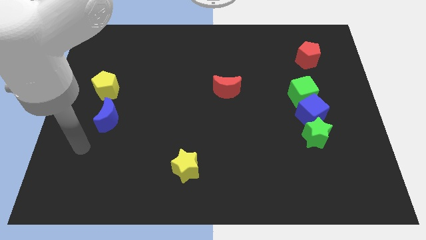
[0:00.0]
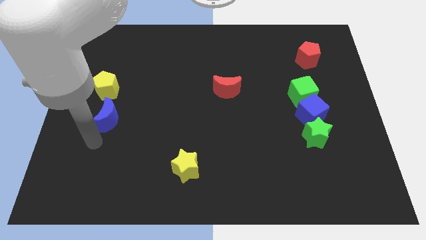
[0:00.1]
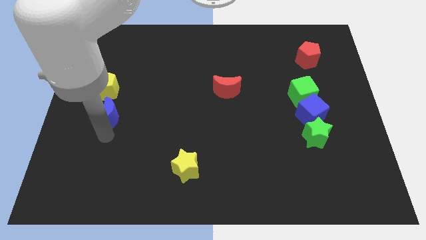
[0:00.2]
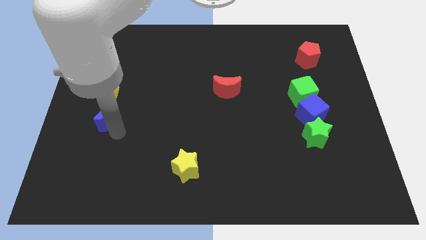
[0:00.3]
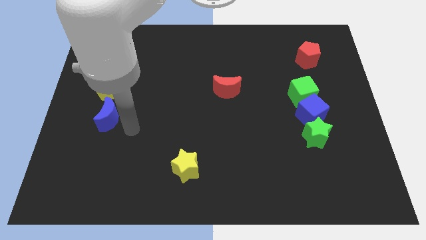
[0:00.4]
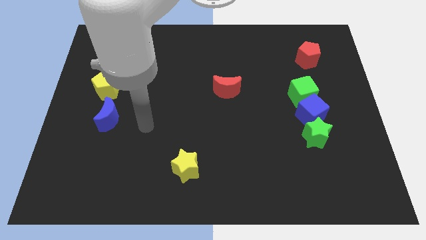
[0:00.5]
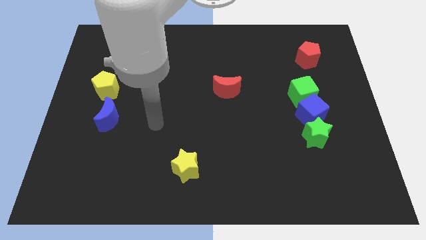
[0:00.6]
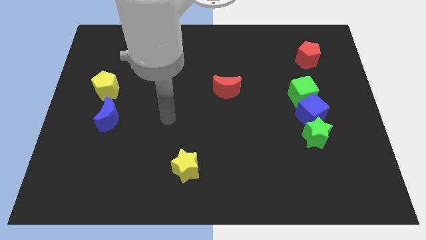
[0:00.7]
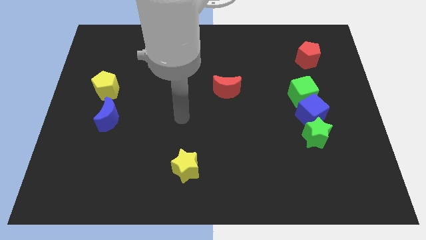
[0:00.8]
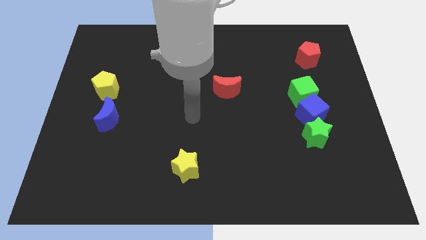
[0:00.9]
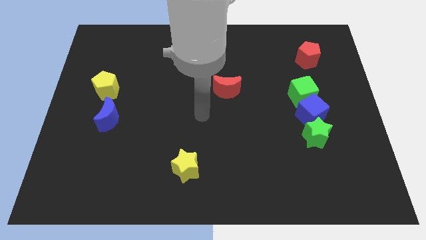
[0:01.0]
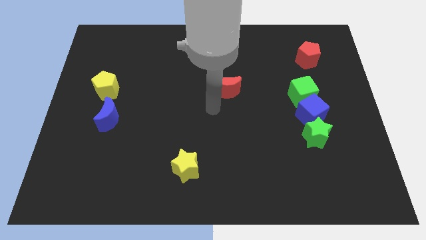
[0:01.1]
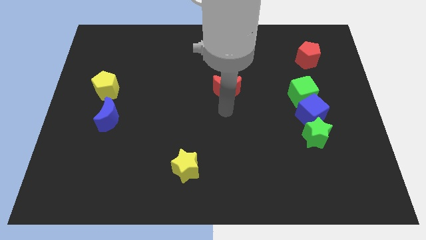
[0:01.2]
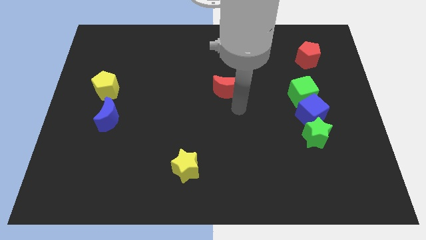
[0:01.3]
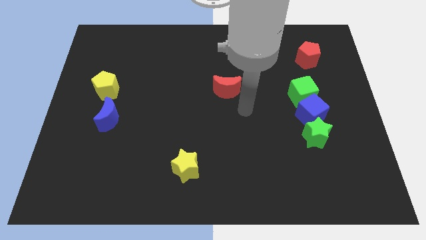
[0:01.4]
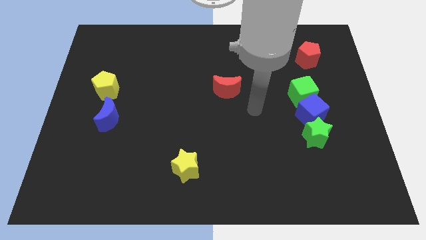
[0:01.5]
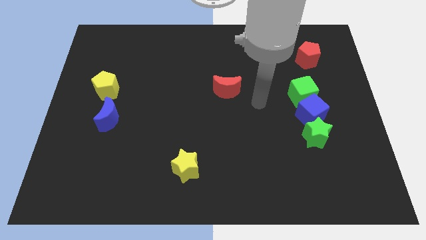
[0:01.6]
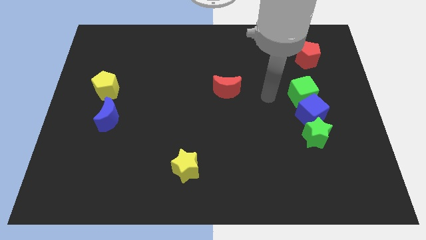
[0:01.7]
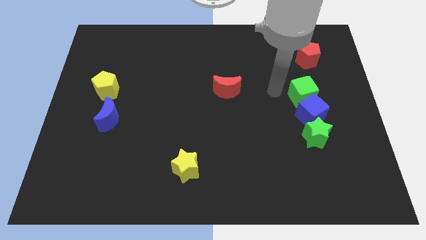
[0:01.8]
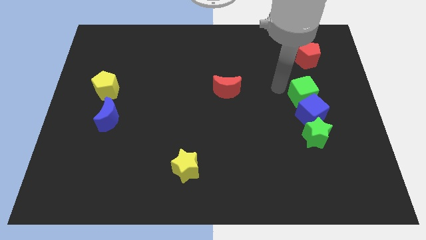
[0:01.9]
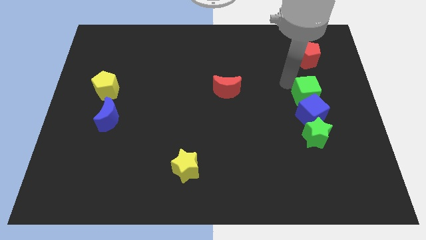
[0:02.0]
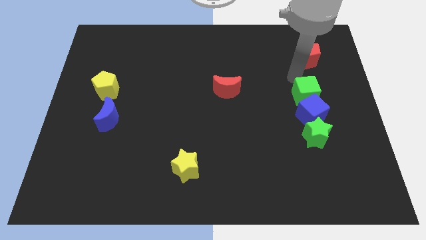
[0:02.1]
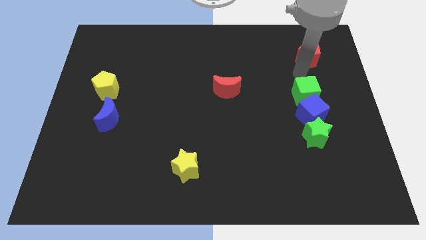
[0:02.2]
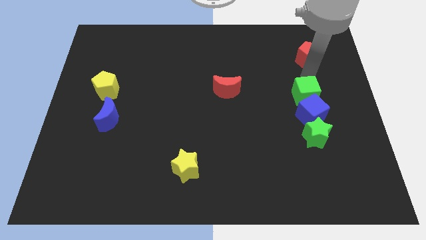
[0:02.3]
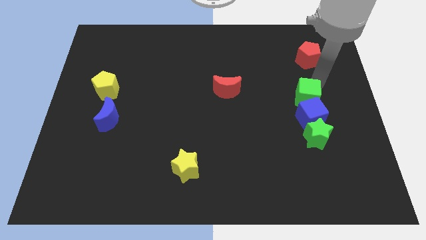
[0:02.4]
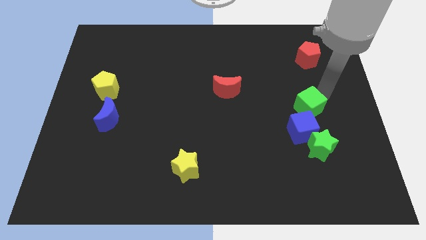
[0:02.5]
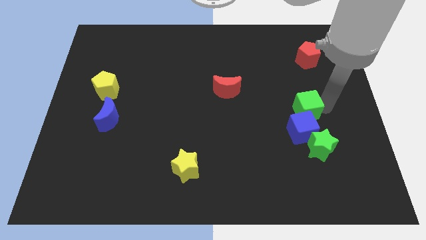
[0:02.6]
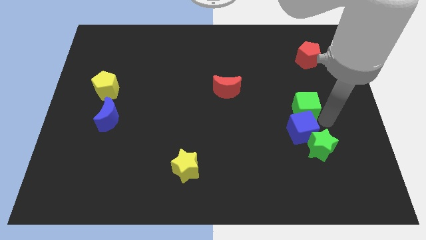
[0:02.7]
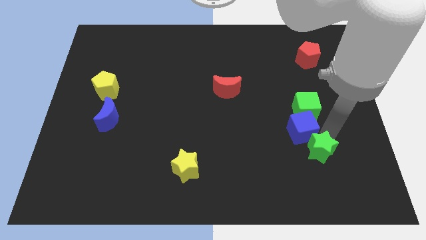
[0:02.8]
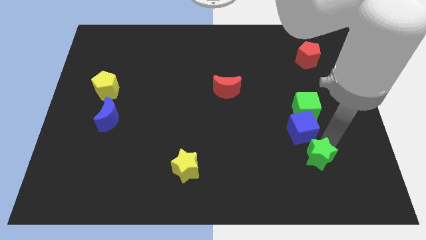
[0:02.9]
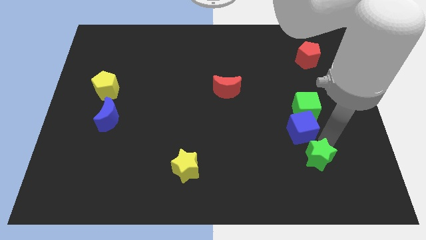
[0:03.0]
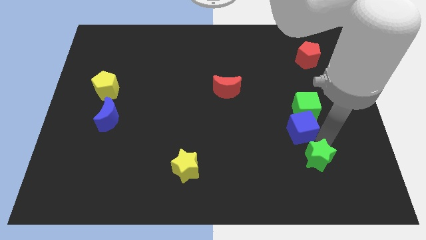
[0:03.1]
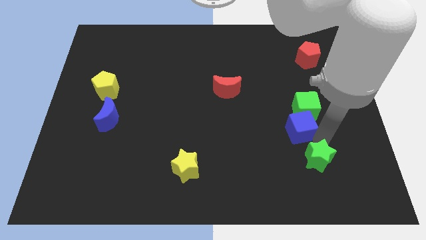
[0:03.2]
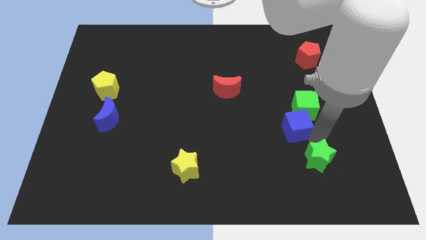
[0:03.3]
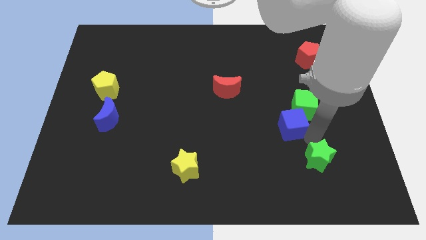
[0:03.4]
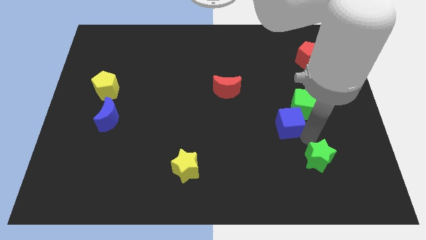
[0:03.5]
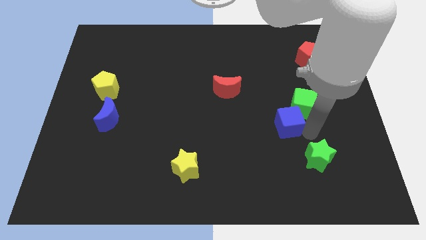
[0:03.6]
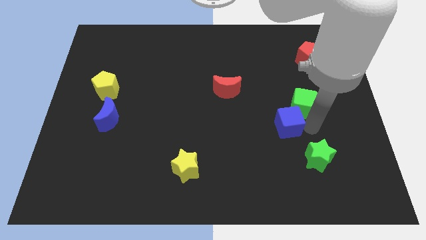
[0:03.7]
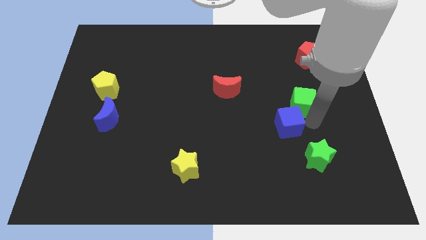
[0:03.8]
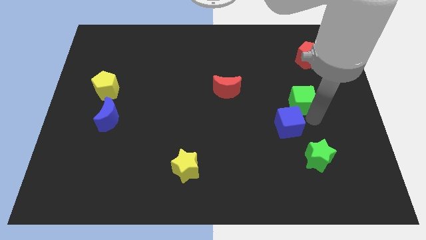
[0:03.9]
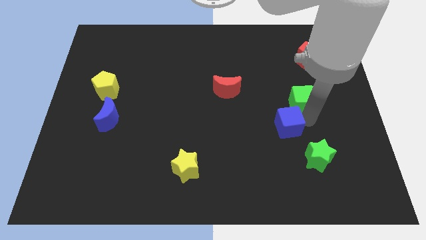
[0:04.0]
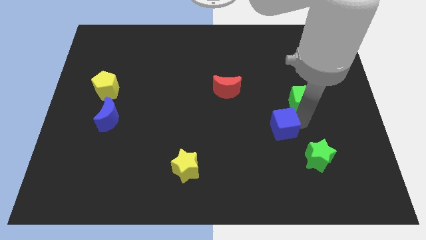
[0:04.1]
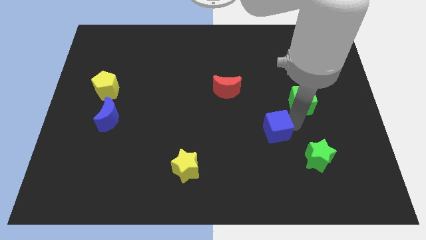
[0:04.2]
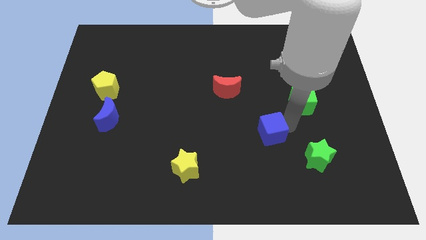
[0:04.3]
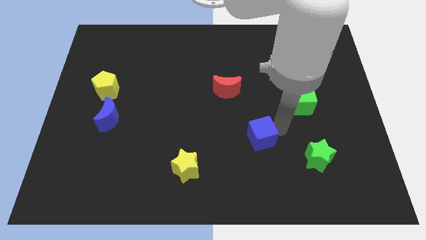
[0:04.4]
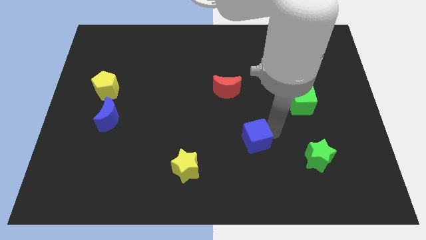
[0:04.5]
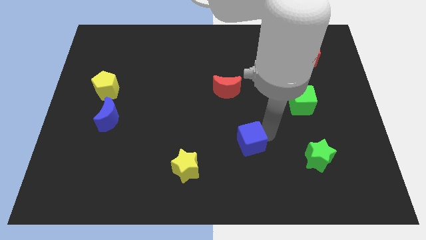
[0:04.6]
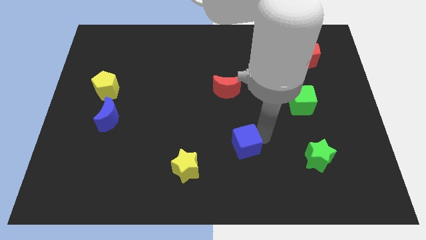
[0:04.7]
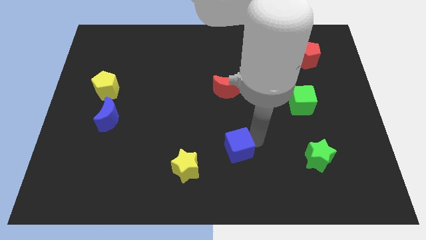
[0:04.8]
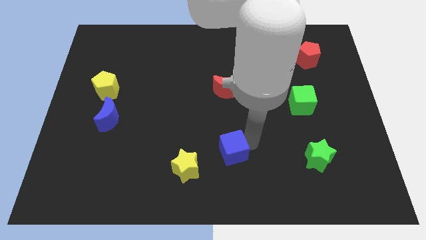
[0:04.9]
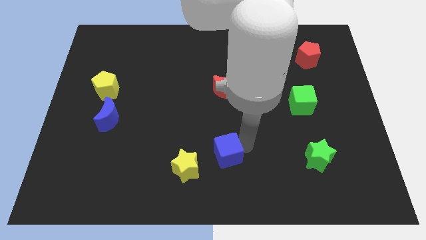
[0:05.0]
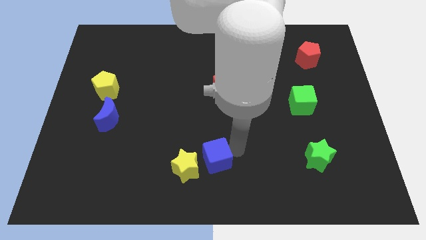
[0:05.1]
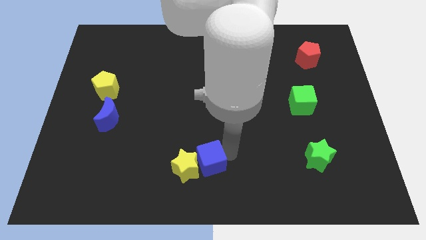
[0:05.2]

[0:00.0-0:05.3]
move the blue cube to the yellow star

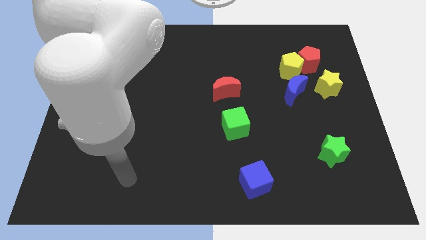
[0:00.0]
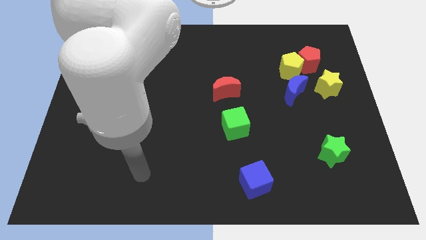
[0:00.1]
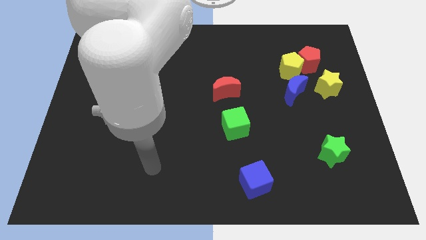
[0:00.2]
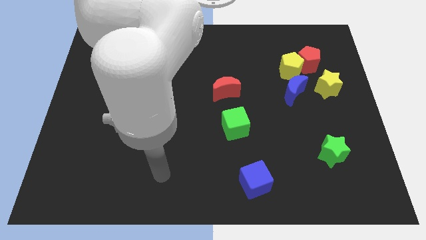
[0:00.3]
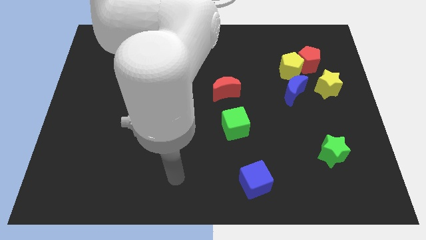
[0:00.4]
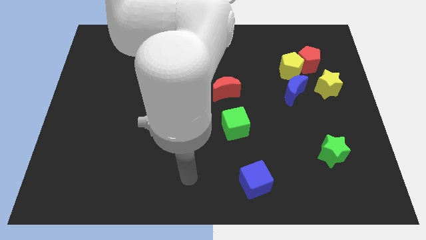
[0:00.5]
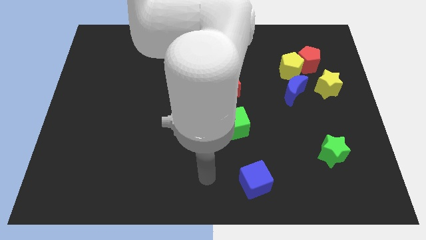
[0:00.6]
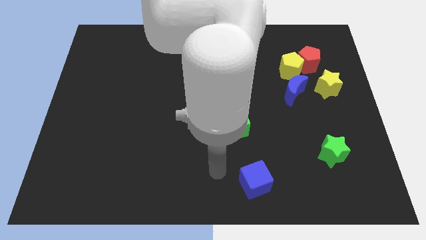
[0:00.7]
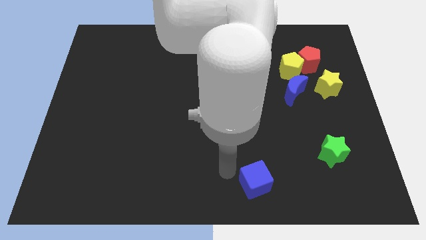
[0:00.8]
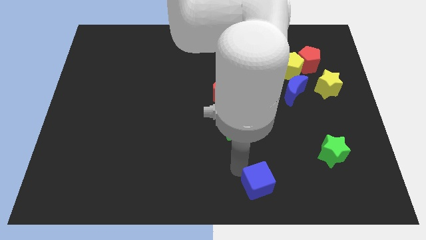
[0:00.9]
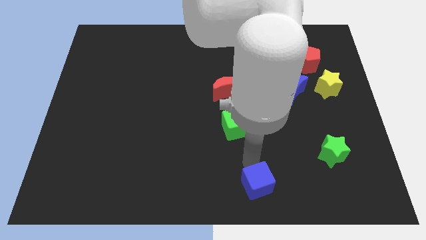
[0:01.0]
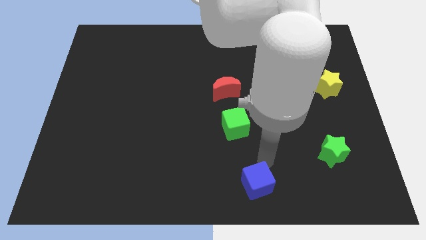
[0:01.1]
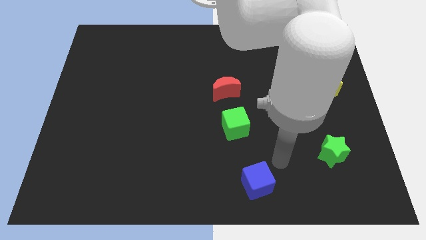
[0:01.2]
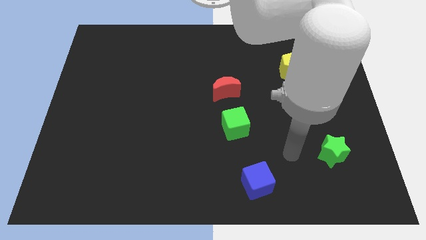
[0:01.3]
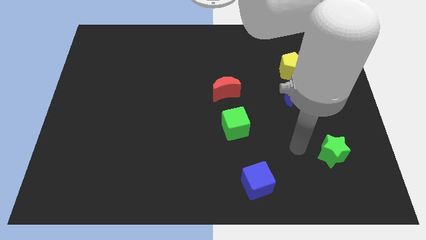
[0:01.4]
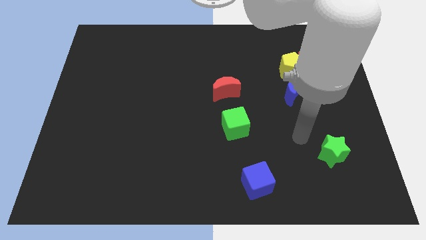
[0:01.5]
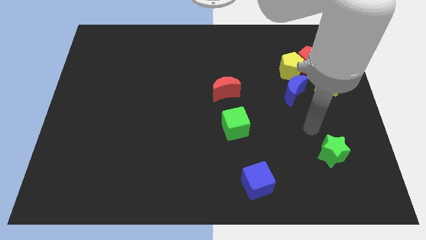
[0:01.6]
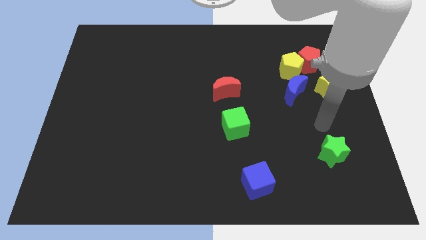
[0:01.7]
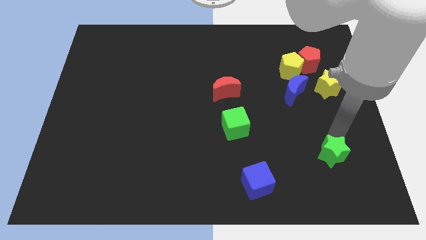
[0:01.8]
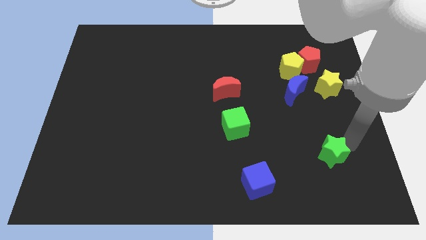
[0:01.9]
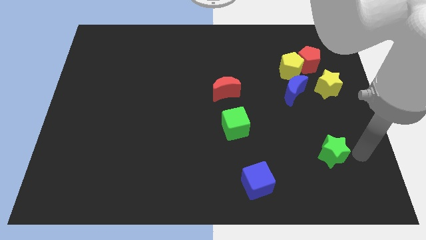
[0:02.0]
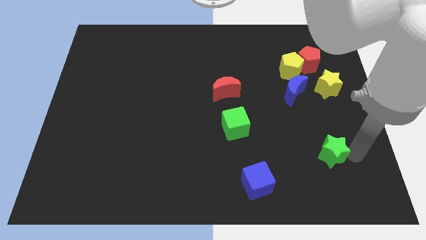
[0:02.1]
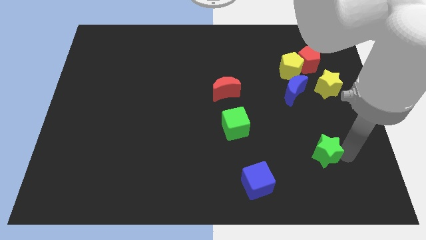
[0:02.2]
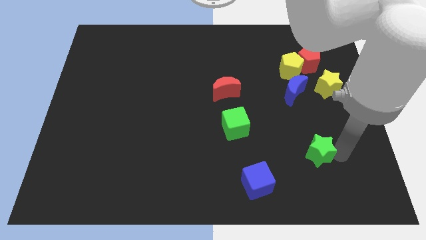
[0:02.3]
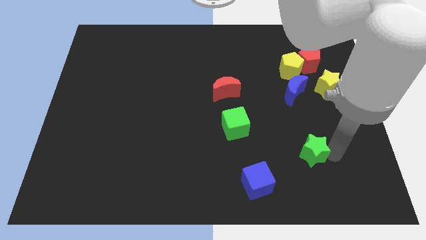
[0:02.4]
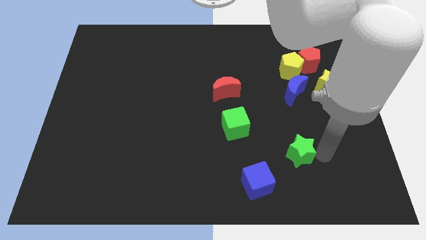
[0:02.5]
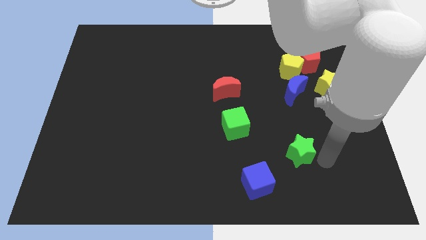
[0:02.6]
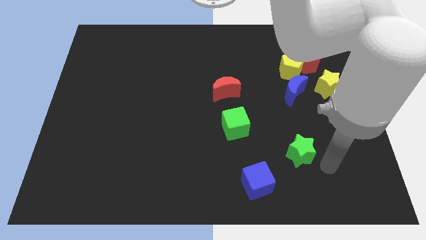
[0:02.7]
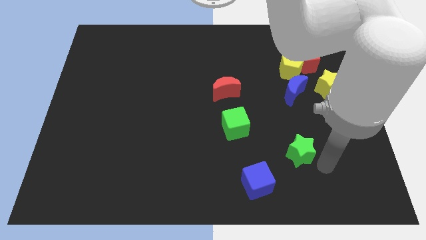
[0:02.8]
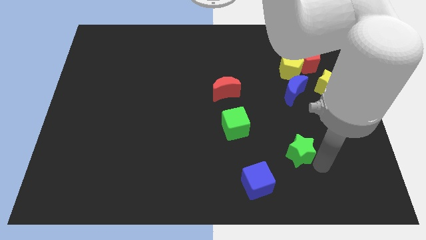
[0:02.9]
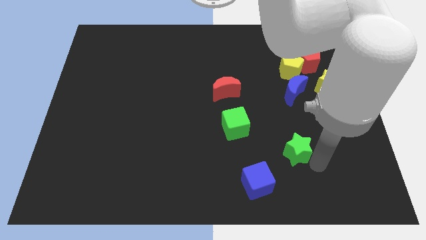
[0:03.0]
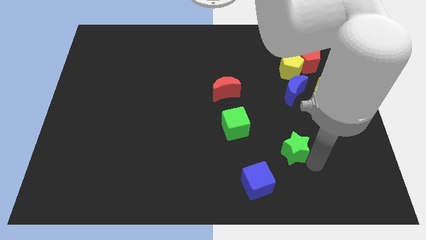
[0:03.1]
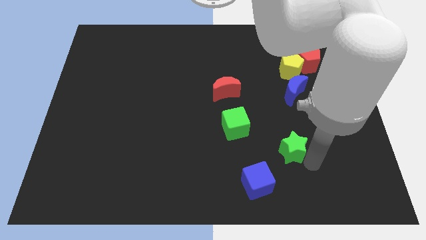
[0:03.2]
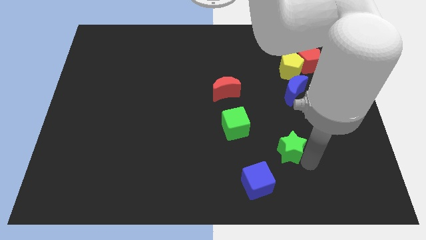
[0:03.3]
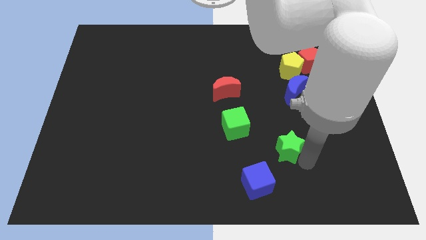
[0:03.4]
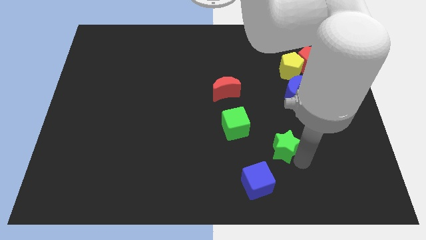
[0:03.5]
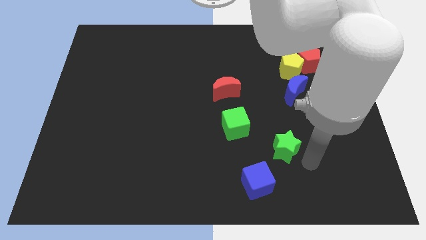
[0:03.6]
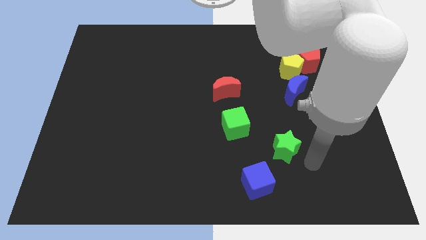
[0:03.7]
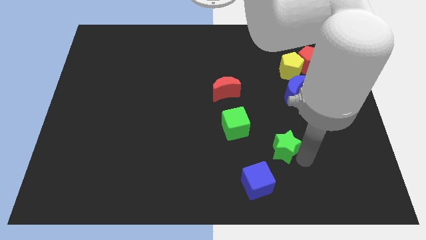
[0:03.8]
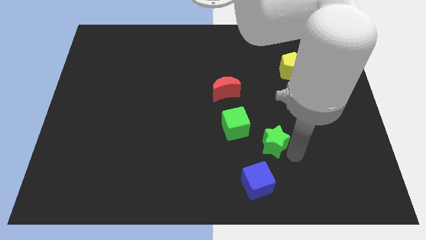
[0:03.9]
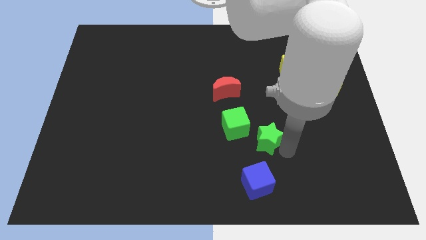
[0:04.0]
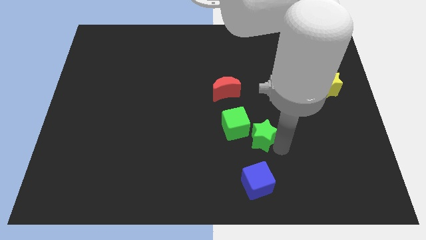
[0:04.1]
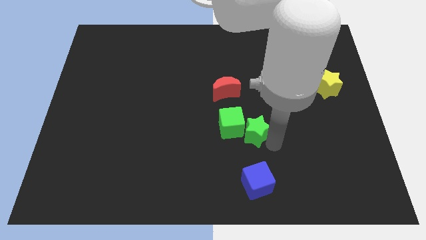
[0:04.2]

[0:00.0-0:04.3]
slide the green star to the green cube
